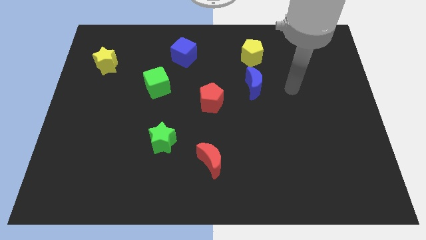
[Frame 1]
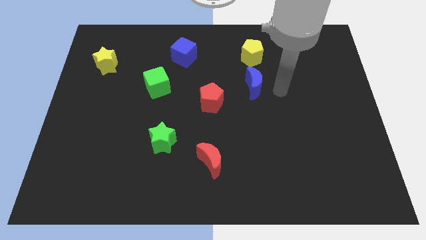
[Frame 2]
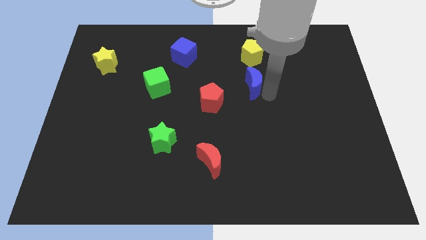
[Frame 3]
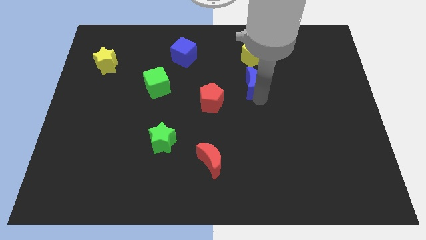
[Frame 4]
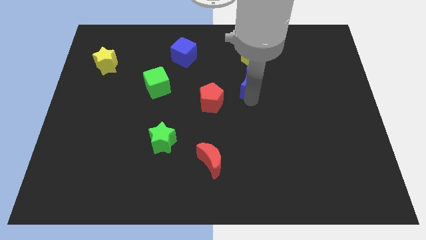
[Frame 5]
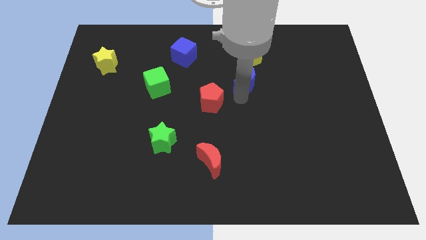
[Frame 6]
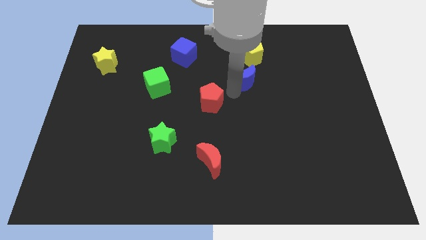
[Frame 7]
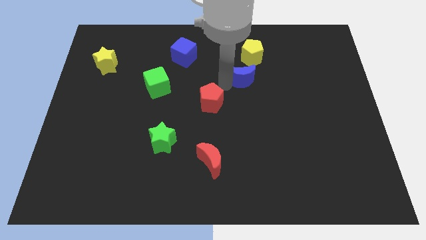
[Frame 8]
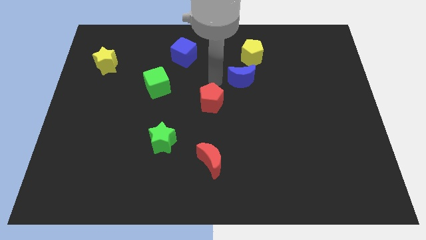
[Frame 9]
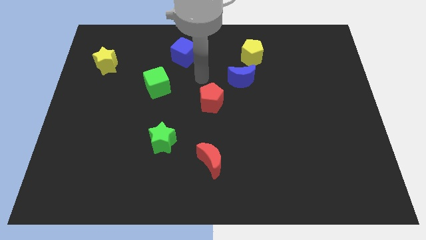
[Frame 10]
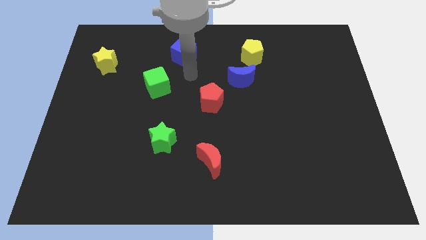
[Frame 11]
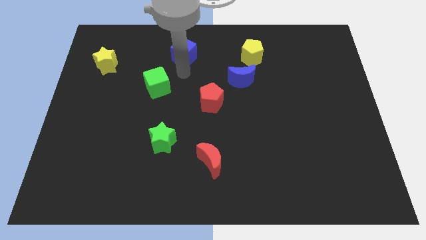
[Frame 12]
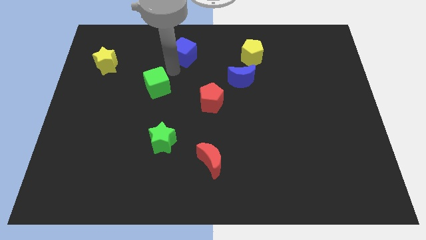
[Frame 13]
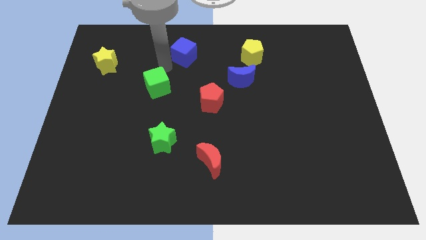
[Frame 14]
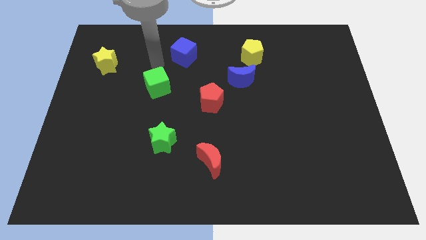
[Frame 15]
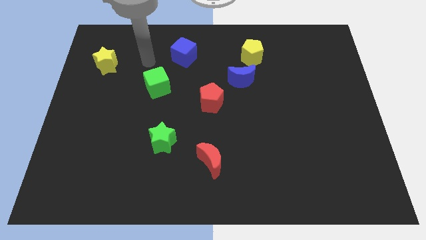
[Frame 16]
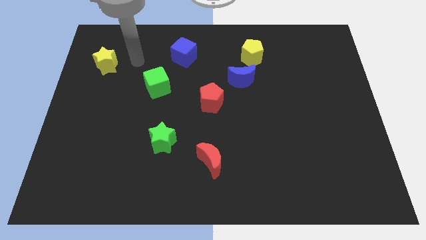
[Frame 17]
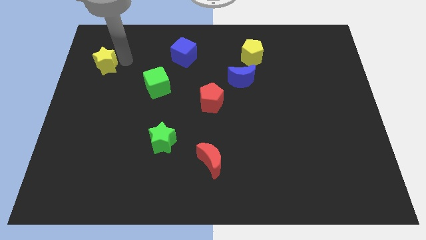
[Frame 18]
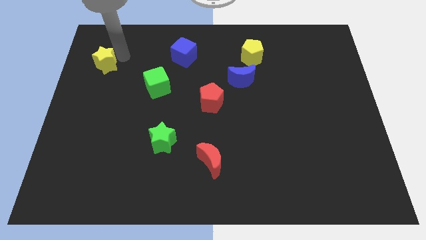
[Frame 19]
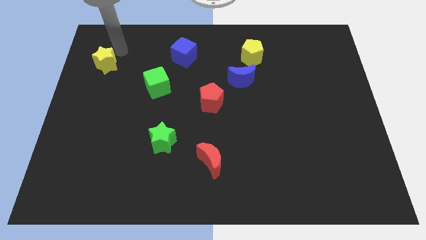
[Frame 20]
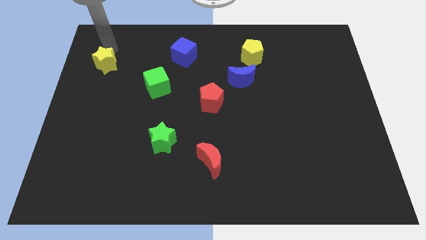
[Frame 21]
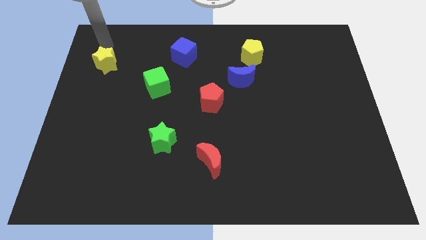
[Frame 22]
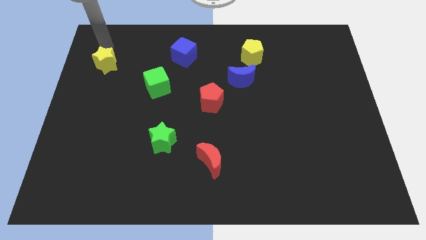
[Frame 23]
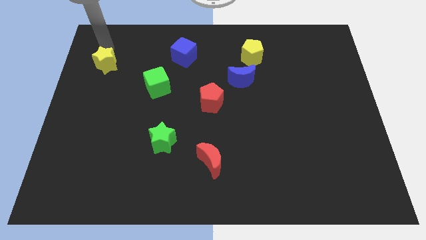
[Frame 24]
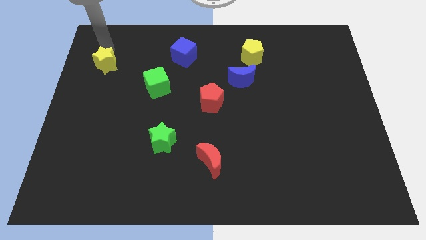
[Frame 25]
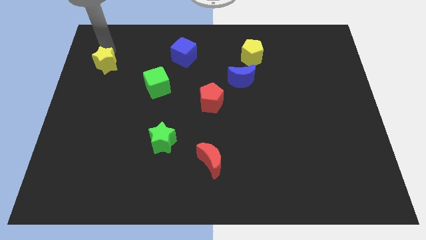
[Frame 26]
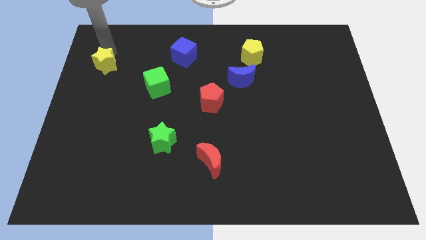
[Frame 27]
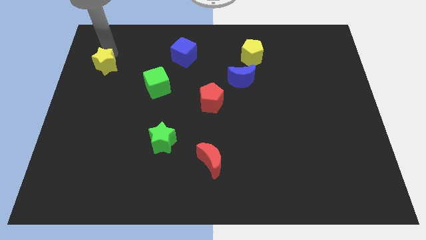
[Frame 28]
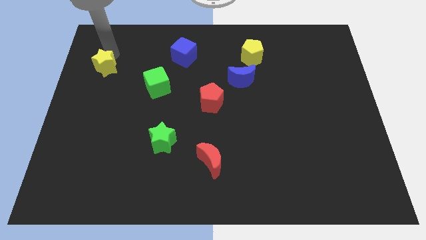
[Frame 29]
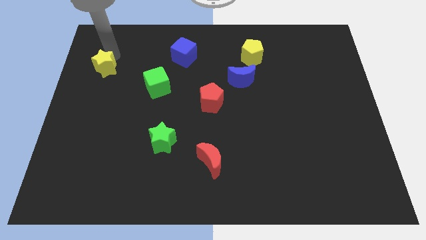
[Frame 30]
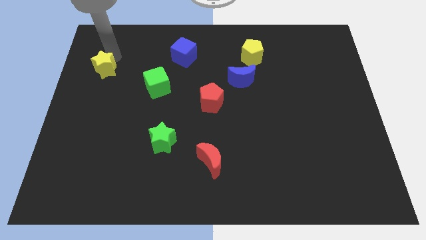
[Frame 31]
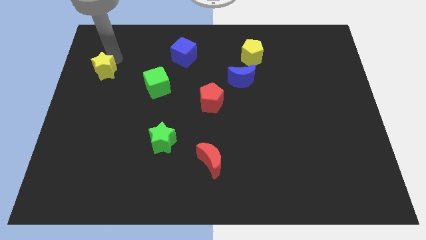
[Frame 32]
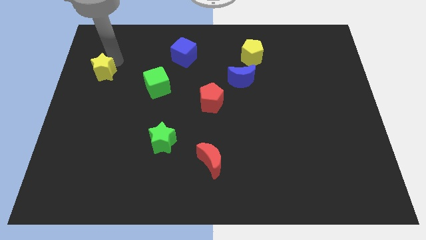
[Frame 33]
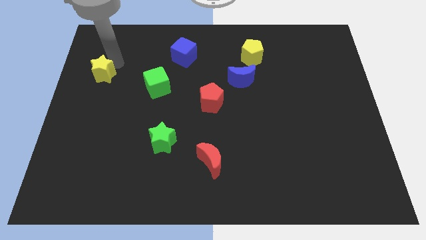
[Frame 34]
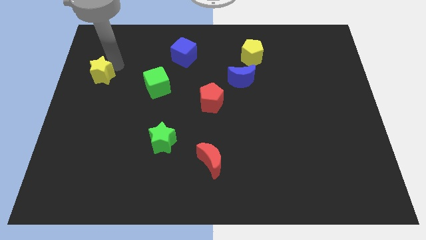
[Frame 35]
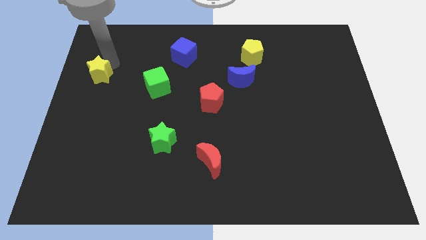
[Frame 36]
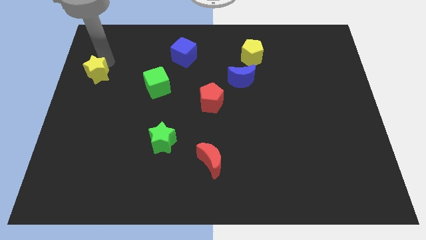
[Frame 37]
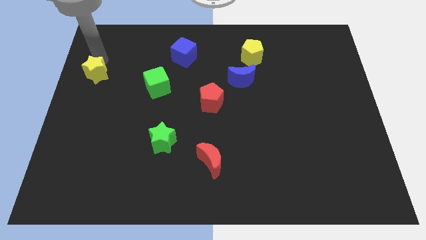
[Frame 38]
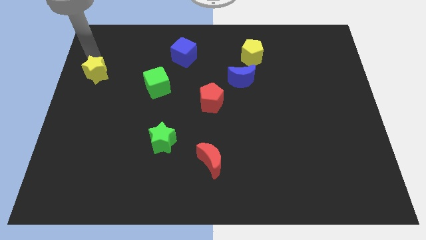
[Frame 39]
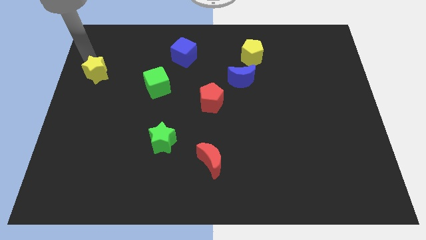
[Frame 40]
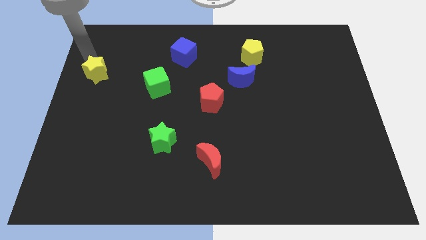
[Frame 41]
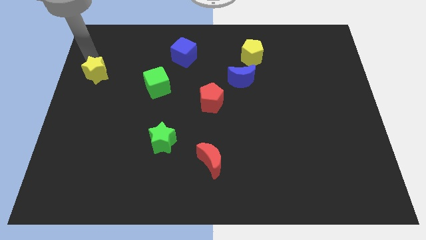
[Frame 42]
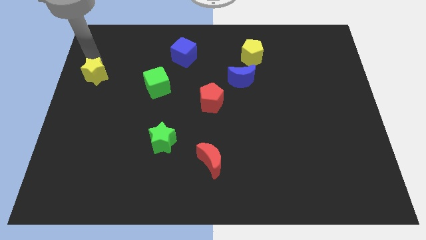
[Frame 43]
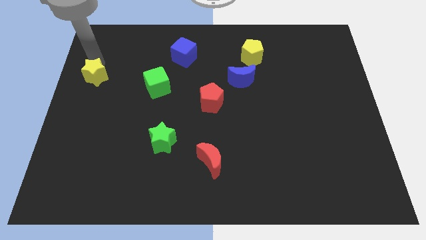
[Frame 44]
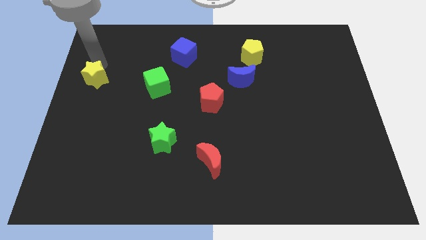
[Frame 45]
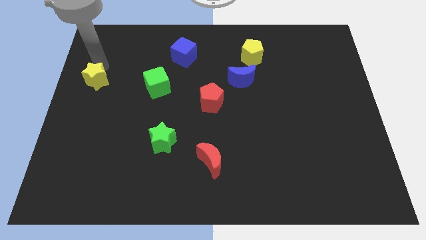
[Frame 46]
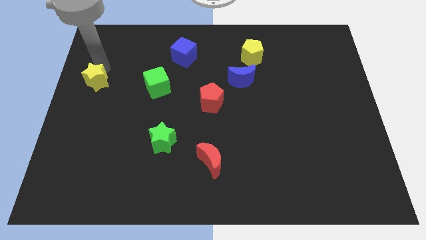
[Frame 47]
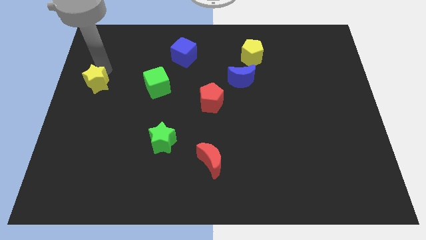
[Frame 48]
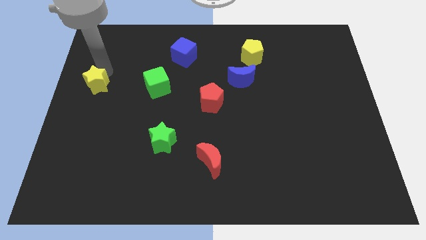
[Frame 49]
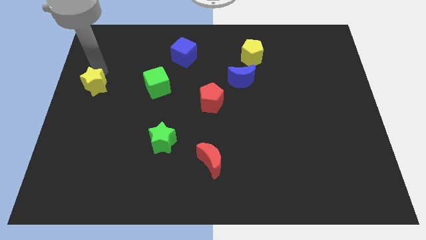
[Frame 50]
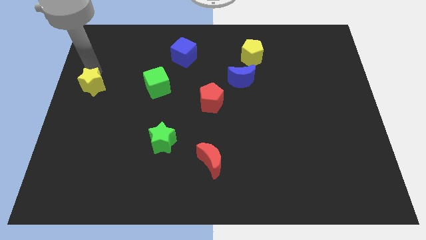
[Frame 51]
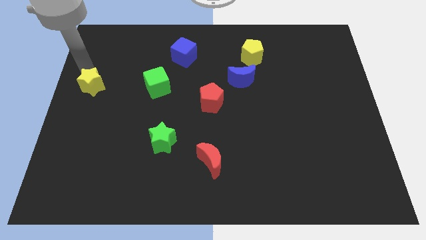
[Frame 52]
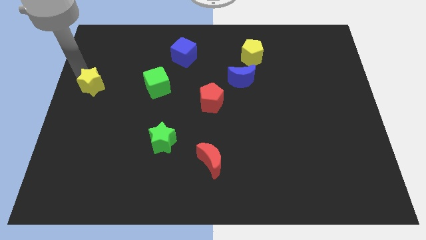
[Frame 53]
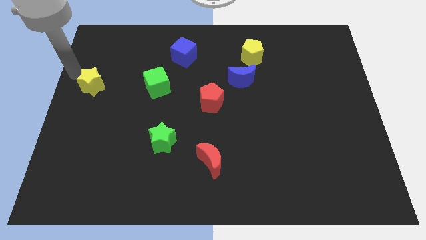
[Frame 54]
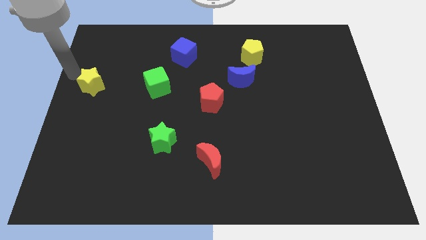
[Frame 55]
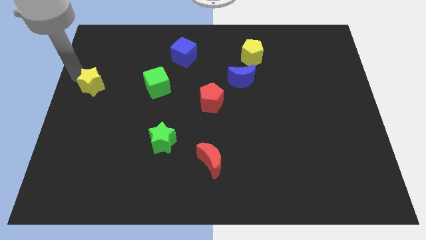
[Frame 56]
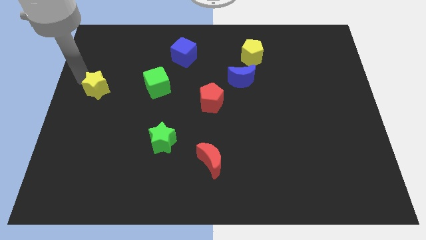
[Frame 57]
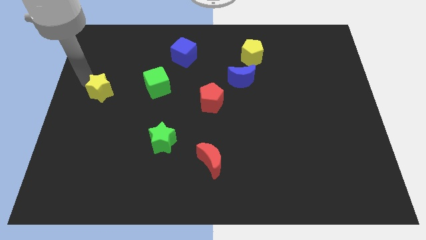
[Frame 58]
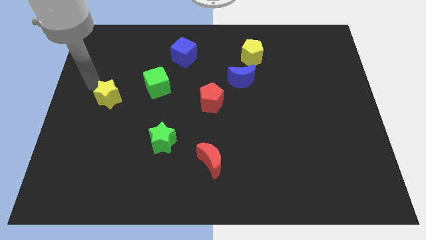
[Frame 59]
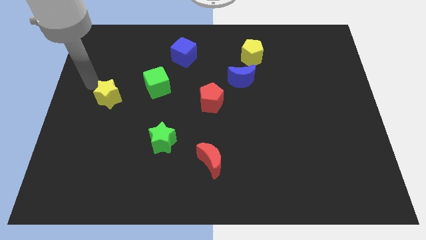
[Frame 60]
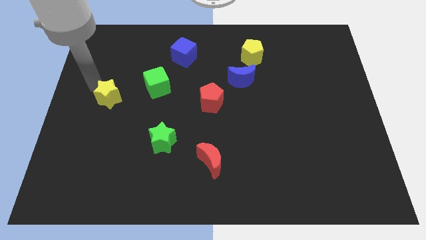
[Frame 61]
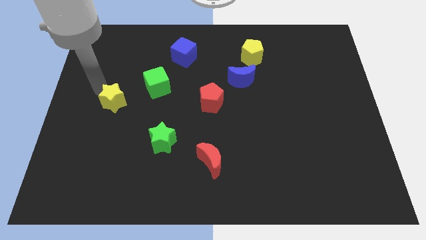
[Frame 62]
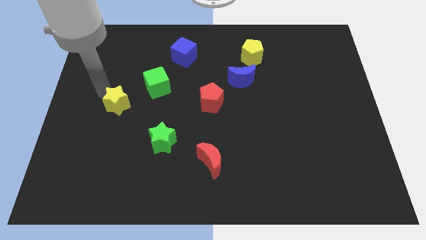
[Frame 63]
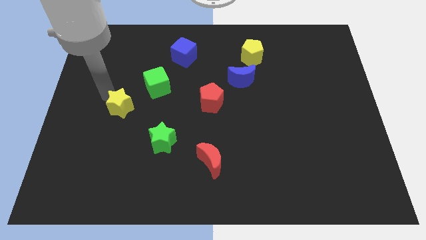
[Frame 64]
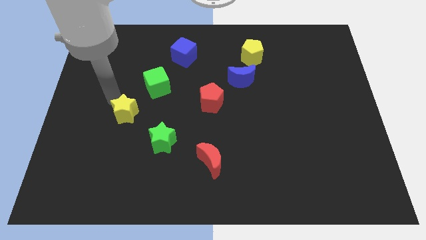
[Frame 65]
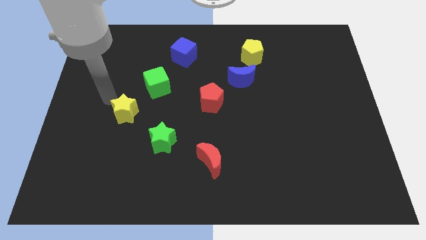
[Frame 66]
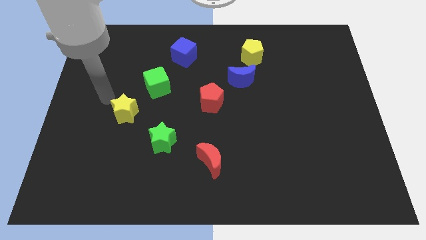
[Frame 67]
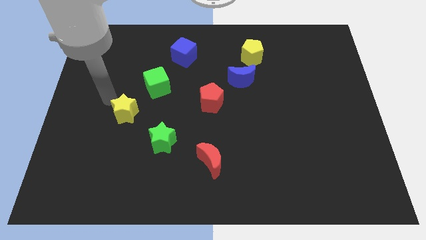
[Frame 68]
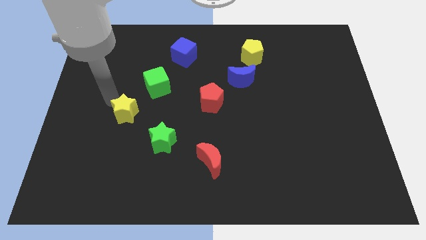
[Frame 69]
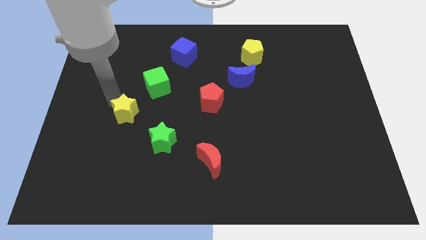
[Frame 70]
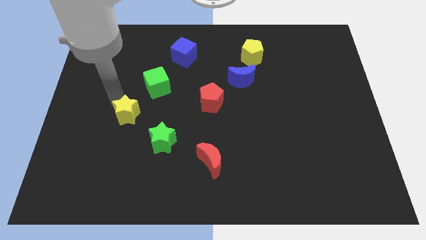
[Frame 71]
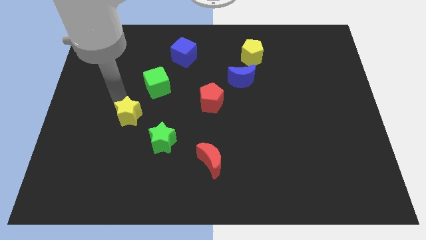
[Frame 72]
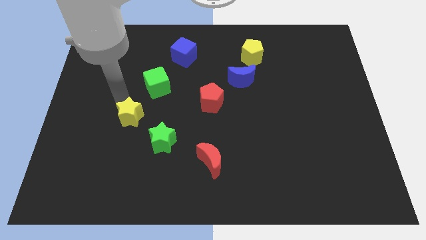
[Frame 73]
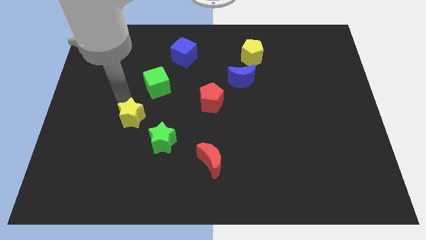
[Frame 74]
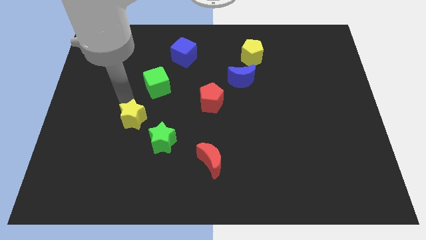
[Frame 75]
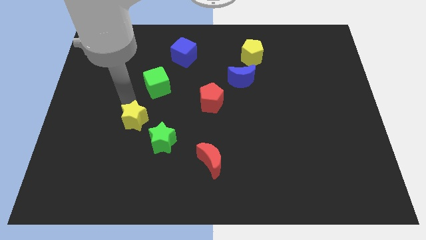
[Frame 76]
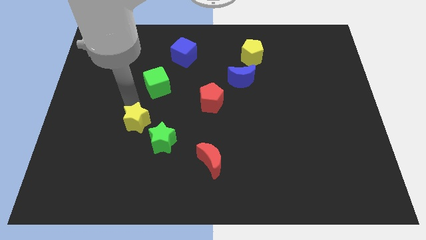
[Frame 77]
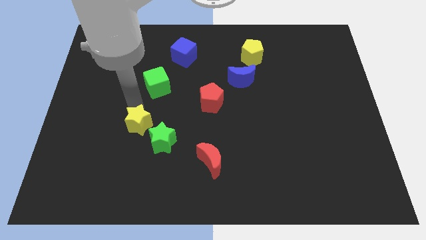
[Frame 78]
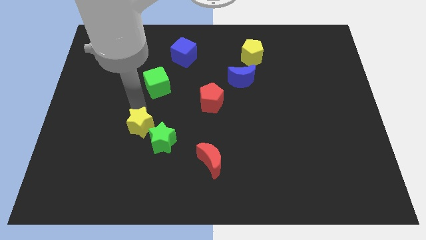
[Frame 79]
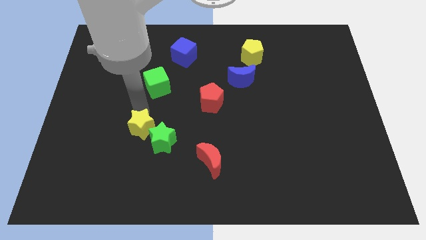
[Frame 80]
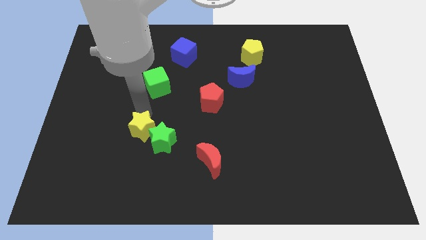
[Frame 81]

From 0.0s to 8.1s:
move the yellow star next to the green star
